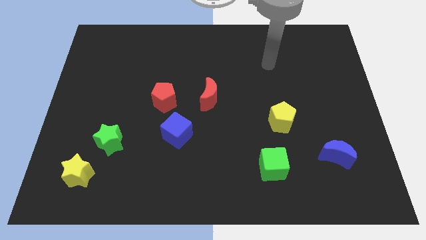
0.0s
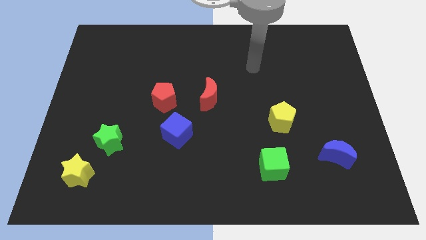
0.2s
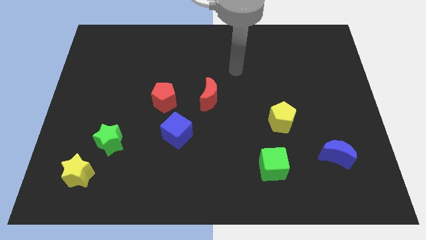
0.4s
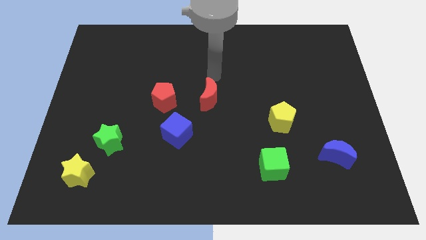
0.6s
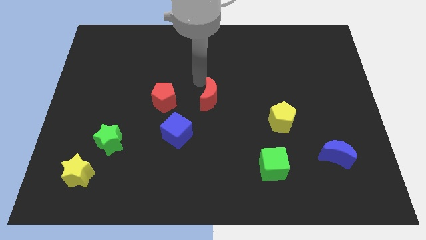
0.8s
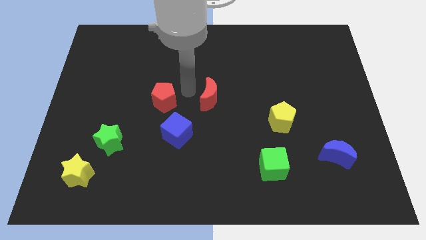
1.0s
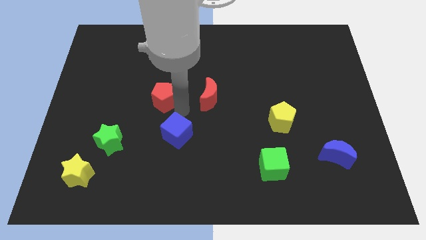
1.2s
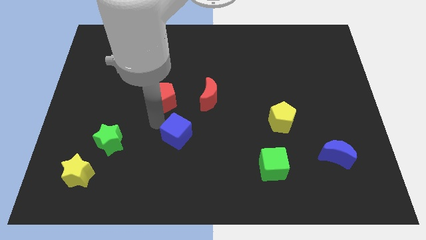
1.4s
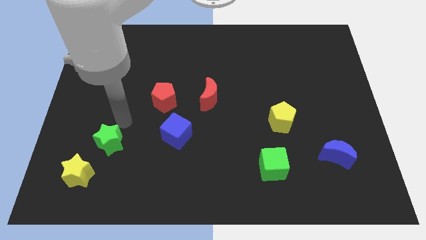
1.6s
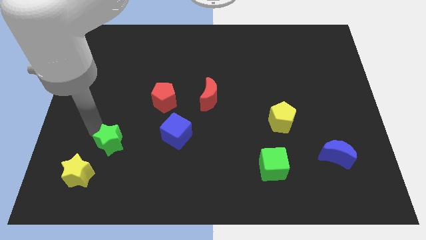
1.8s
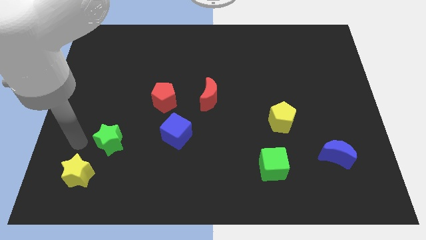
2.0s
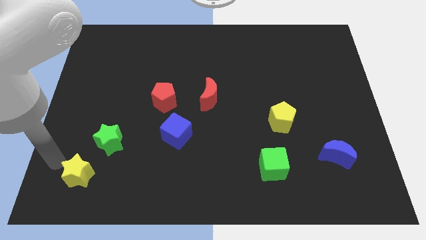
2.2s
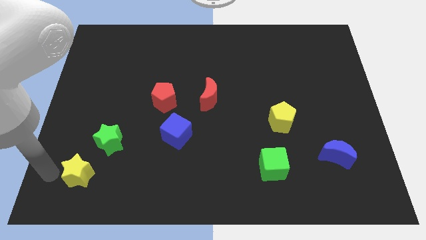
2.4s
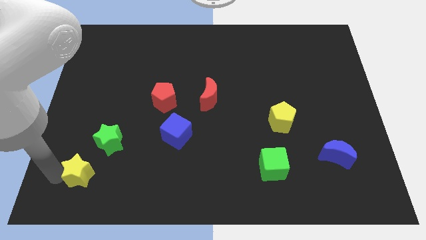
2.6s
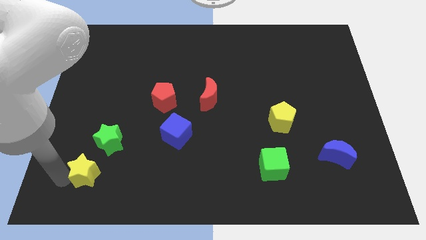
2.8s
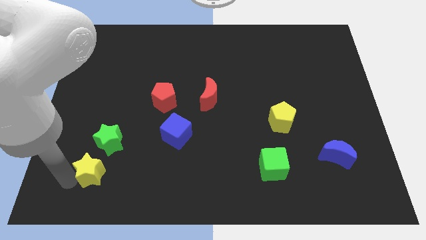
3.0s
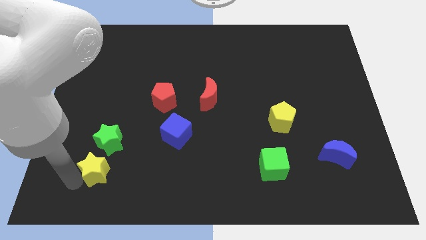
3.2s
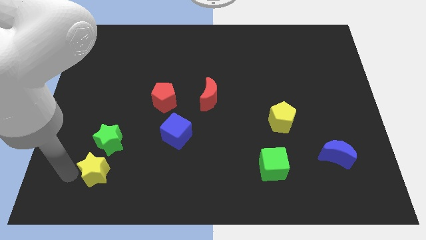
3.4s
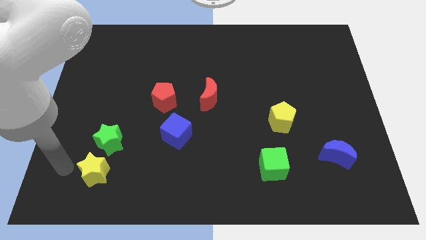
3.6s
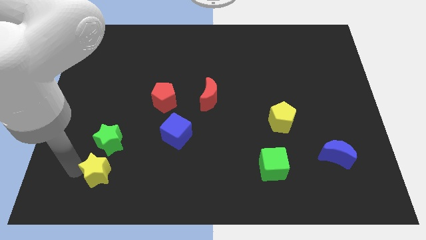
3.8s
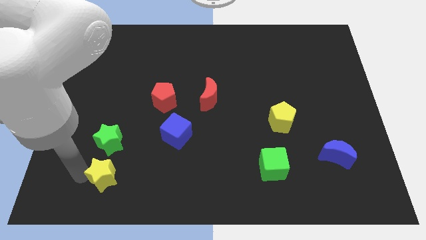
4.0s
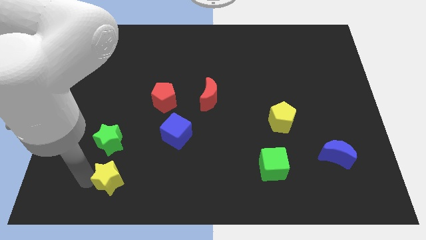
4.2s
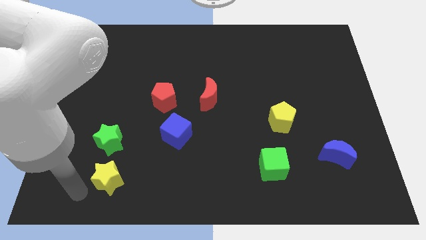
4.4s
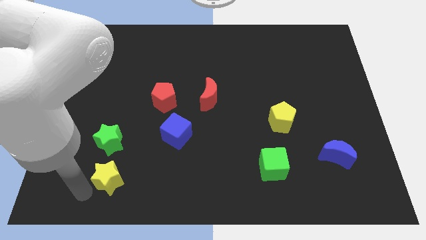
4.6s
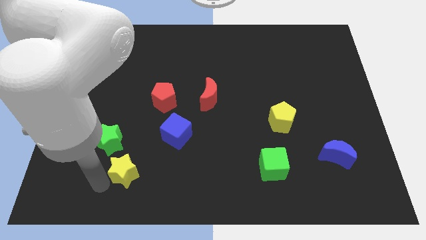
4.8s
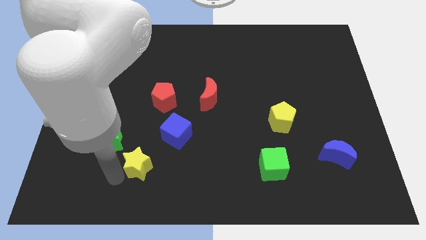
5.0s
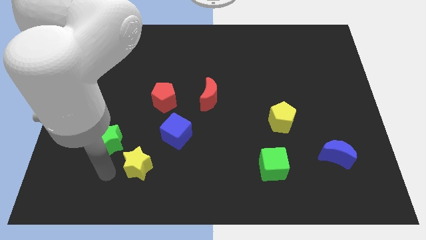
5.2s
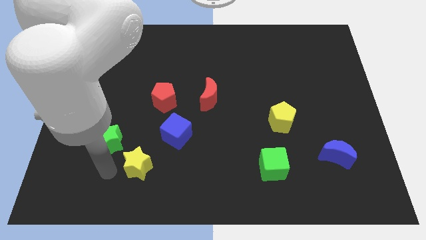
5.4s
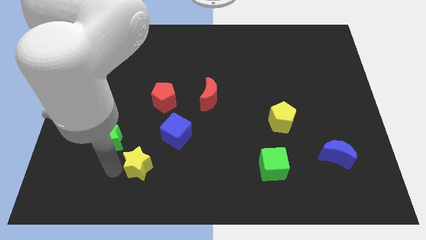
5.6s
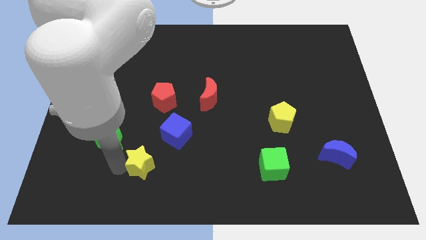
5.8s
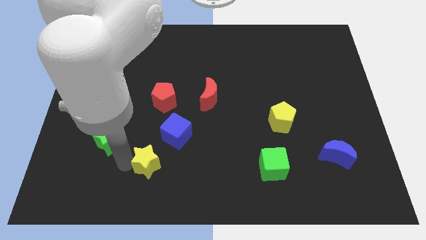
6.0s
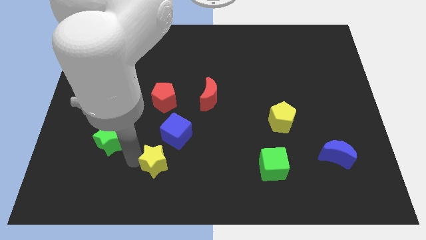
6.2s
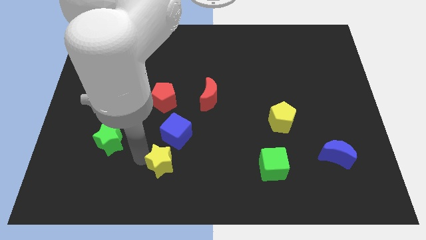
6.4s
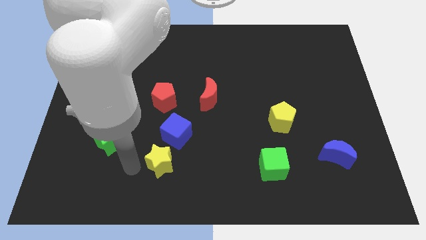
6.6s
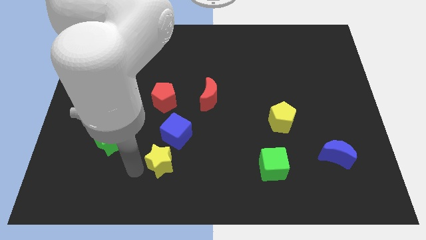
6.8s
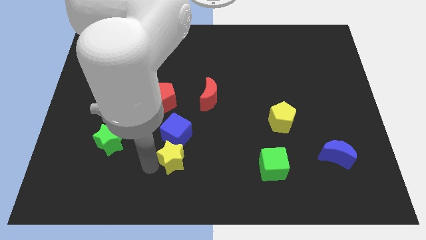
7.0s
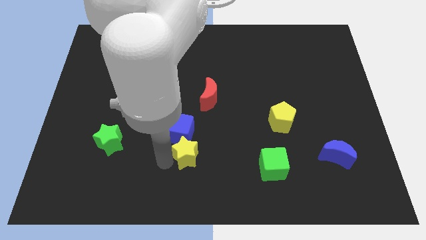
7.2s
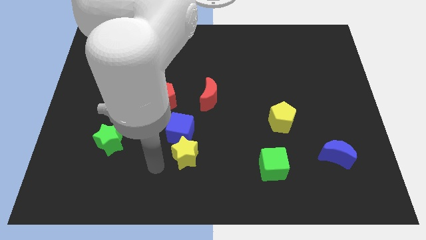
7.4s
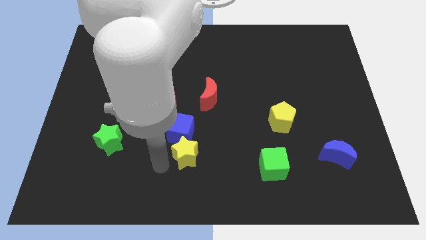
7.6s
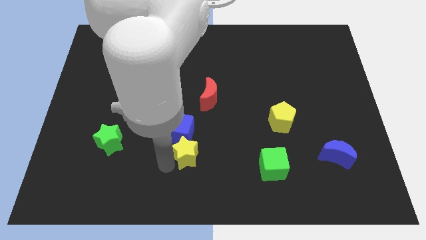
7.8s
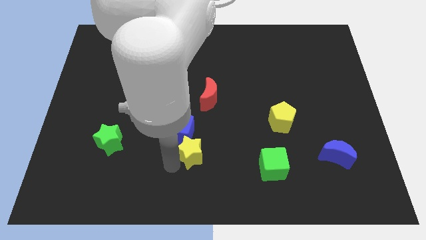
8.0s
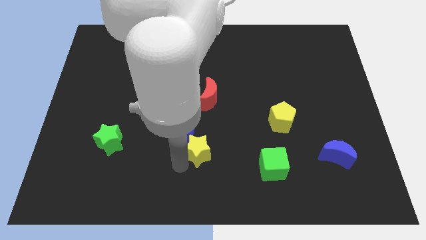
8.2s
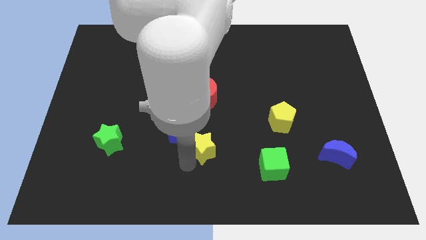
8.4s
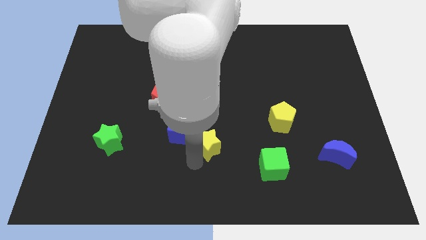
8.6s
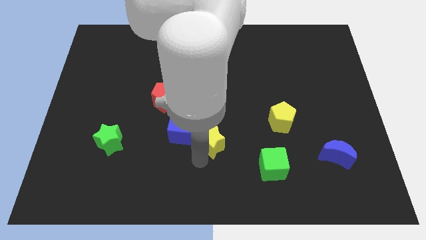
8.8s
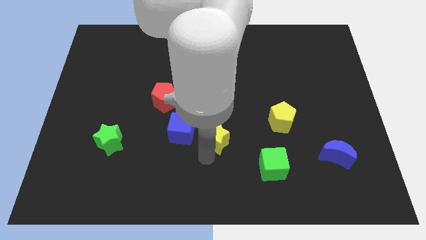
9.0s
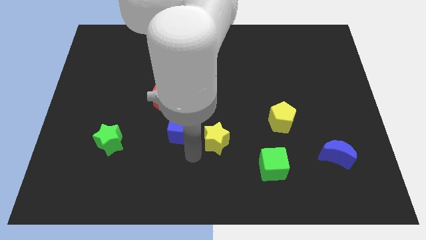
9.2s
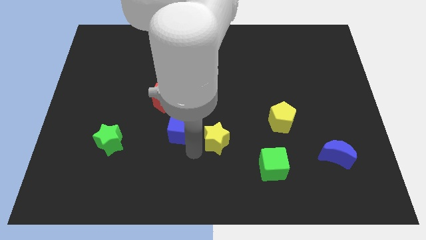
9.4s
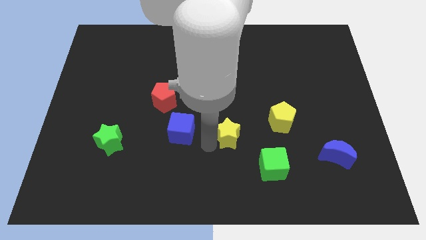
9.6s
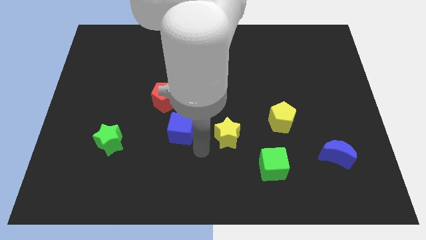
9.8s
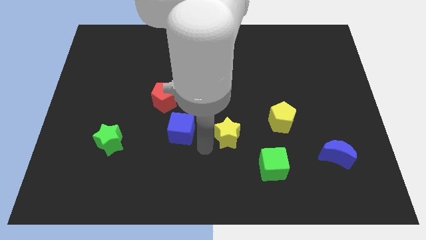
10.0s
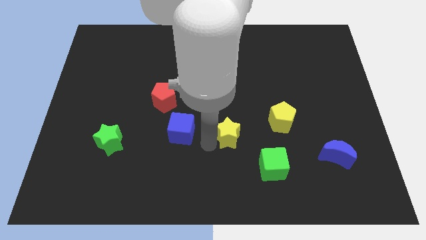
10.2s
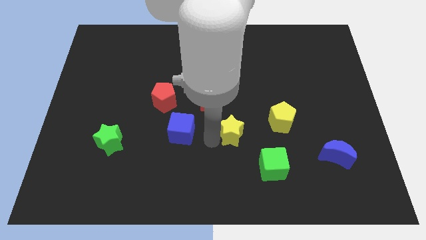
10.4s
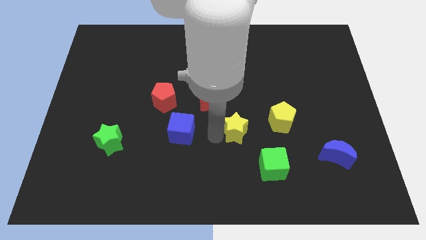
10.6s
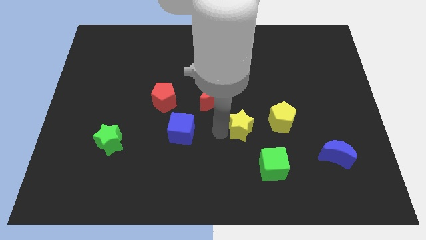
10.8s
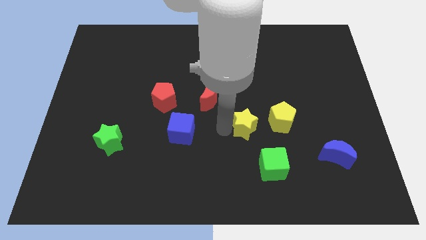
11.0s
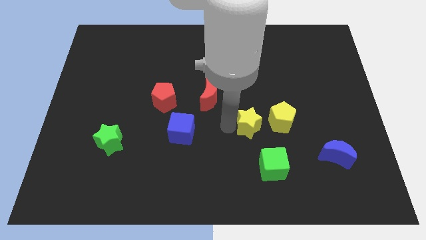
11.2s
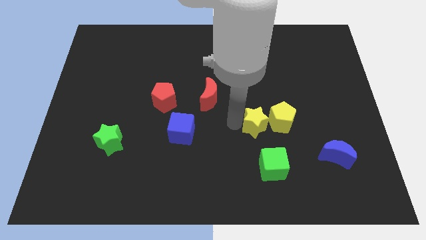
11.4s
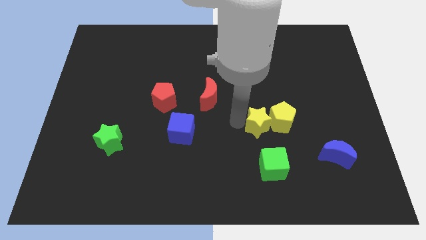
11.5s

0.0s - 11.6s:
slide the yellow star close to the yellow pentagon

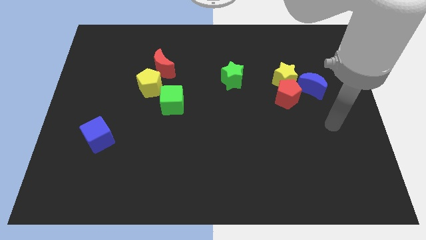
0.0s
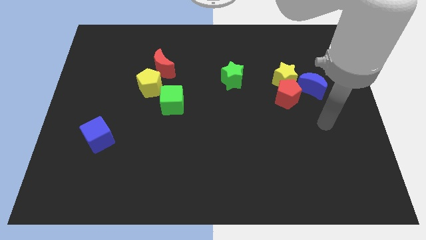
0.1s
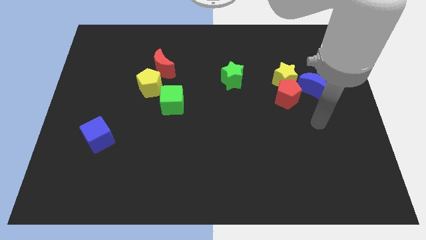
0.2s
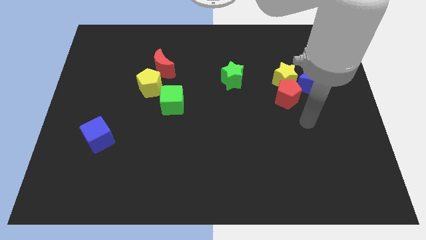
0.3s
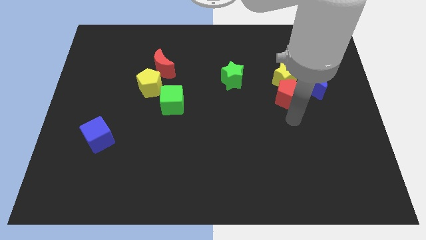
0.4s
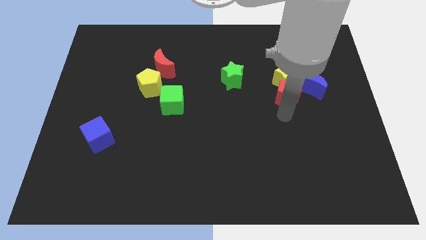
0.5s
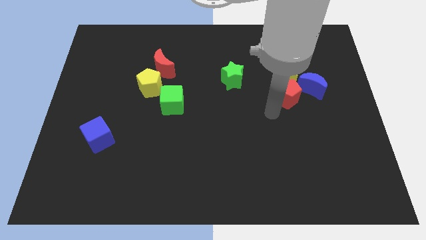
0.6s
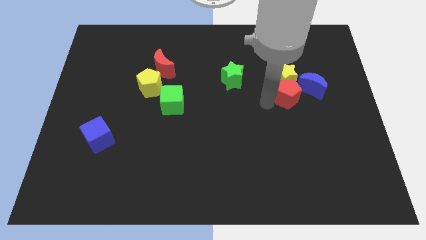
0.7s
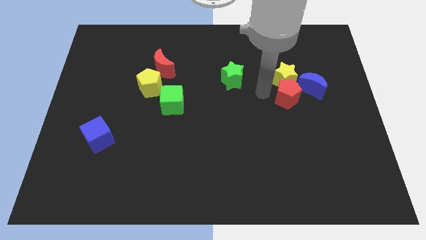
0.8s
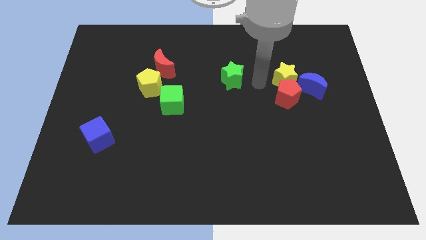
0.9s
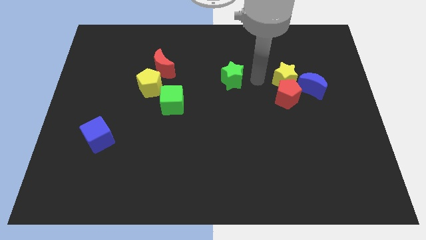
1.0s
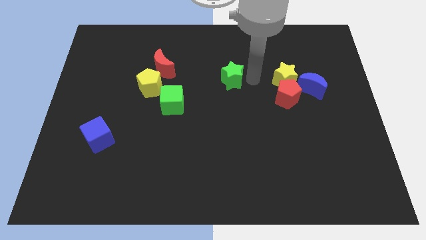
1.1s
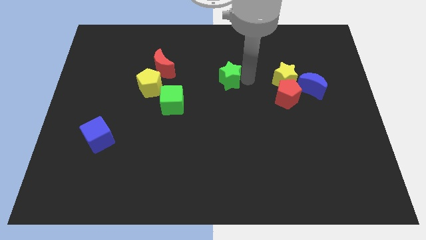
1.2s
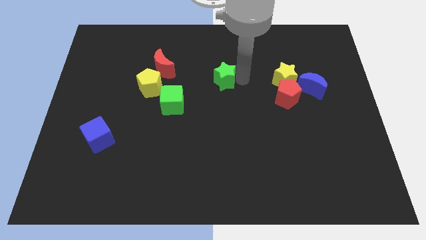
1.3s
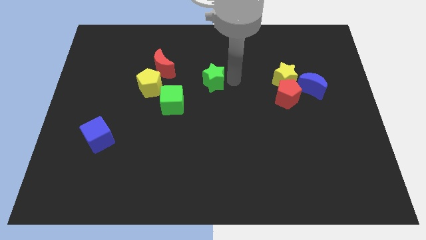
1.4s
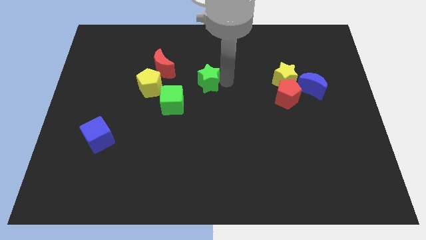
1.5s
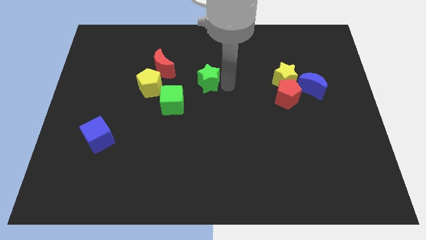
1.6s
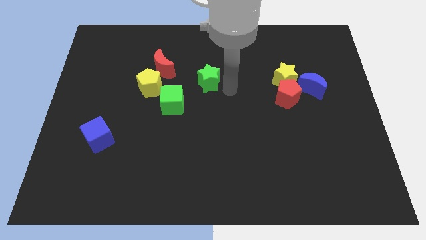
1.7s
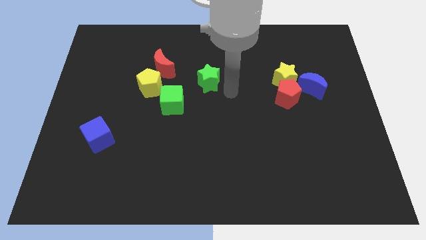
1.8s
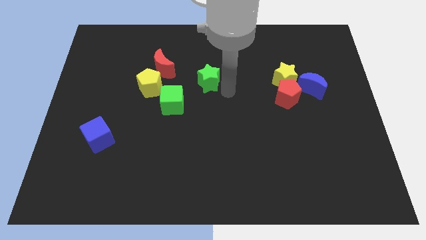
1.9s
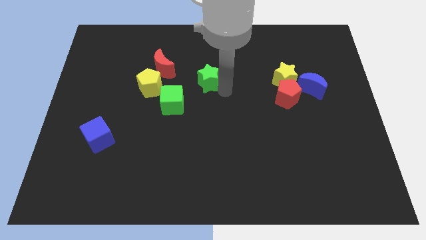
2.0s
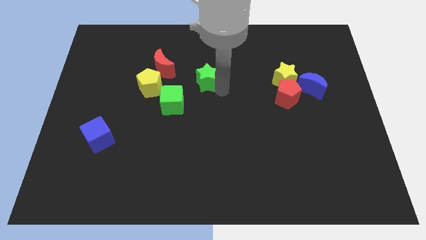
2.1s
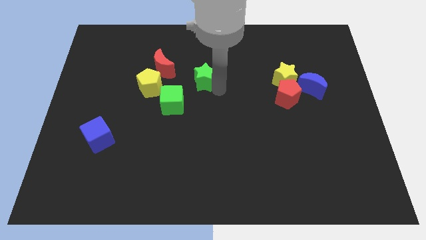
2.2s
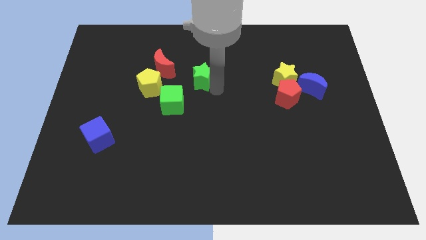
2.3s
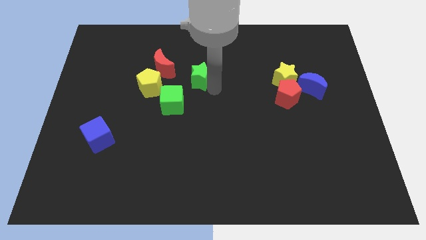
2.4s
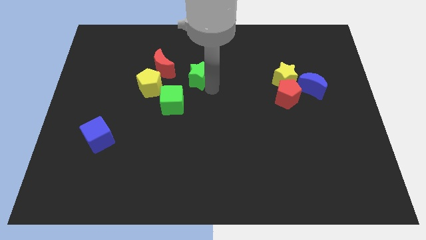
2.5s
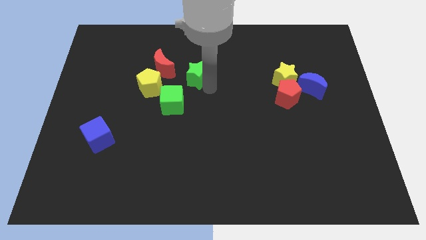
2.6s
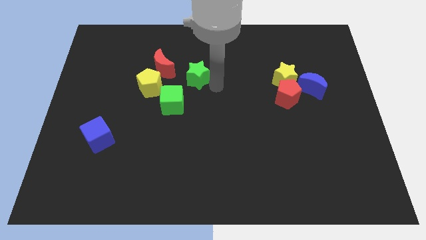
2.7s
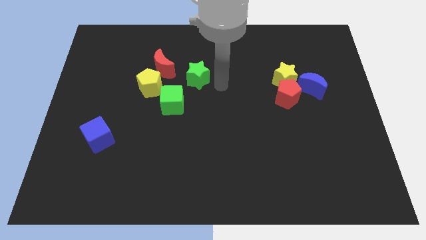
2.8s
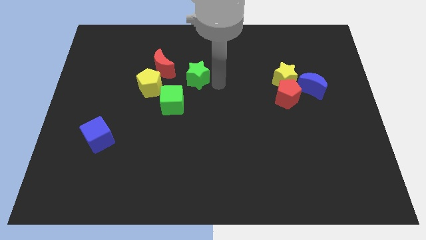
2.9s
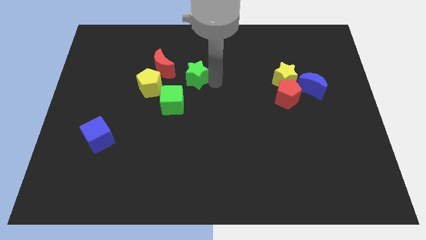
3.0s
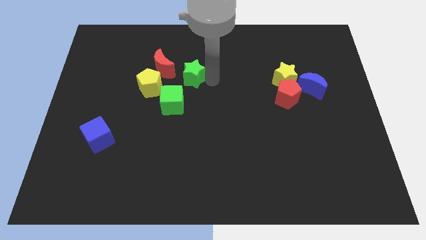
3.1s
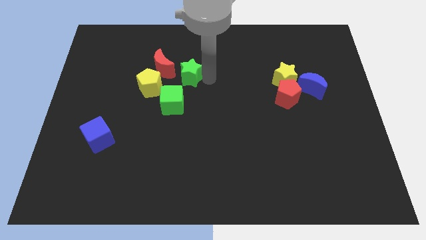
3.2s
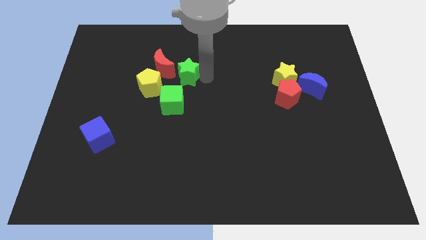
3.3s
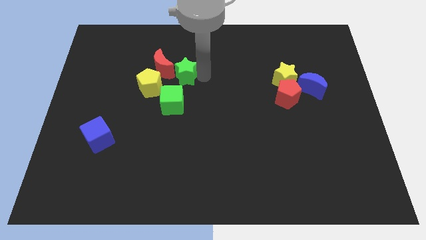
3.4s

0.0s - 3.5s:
slide the green star towards the red moon
